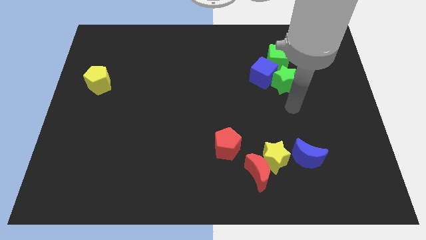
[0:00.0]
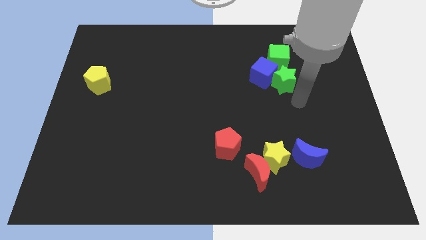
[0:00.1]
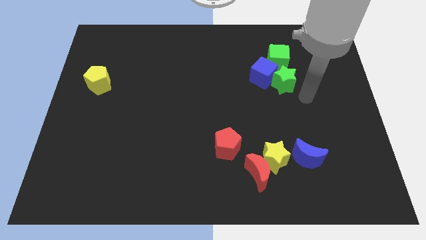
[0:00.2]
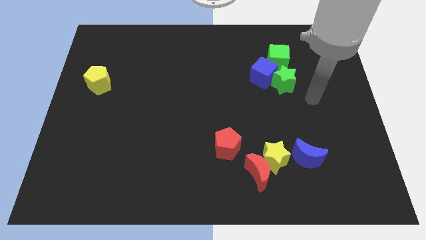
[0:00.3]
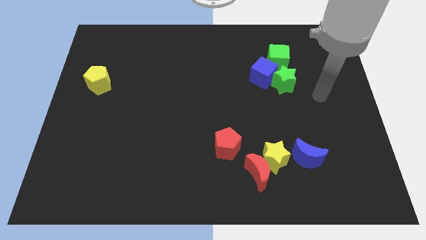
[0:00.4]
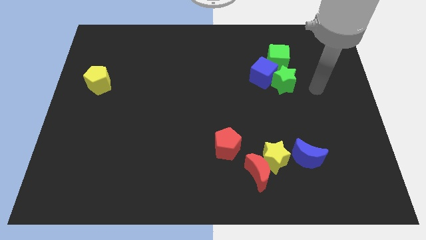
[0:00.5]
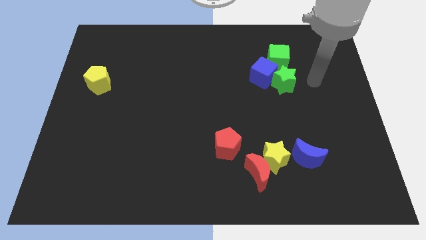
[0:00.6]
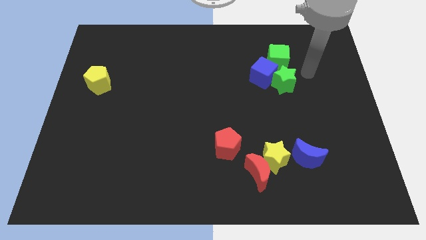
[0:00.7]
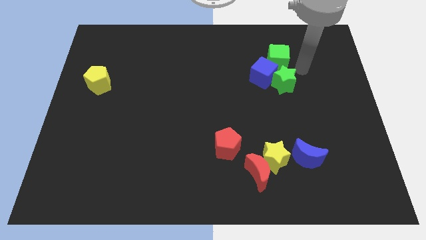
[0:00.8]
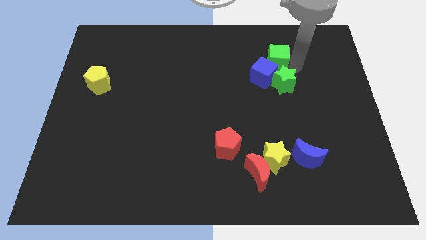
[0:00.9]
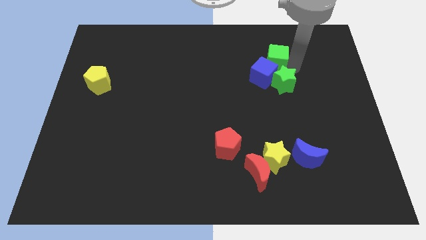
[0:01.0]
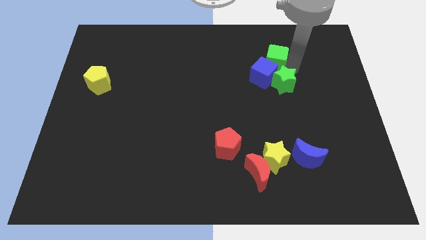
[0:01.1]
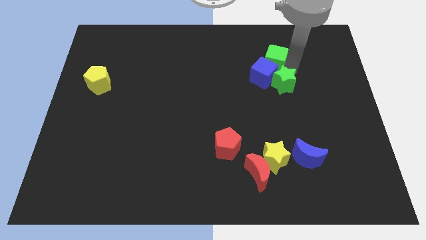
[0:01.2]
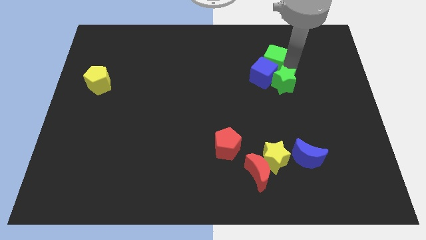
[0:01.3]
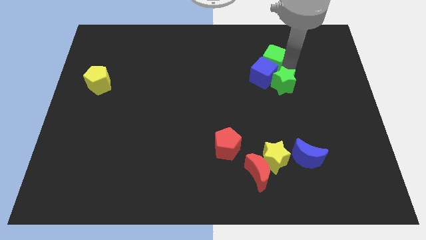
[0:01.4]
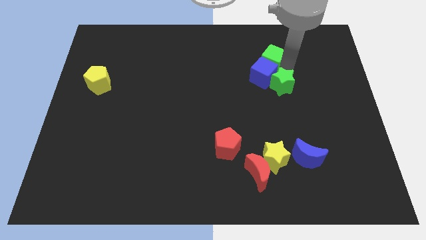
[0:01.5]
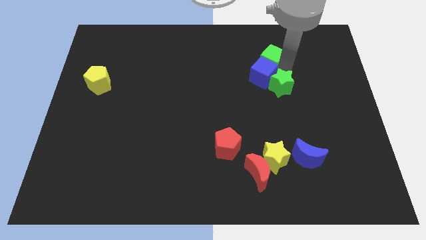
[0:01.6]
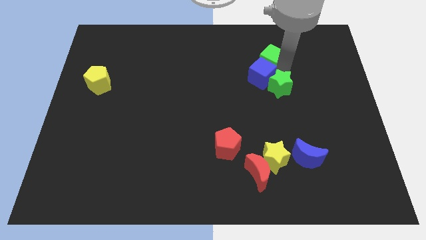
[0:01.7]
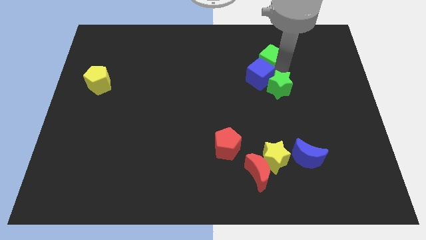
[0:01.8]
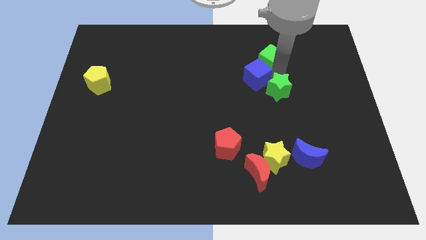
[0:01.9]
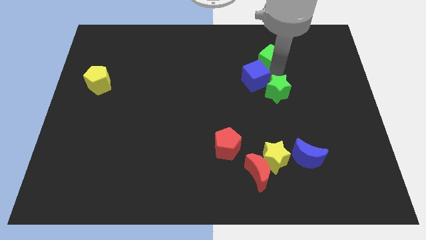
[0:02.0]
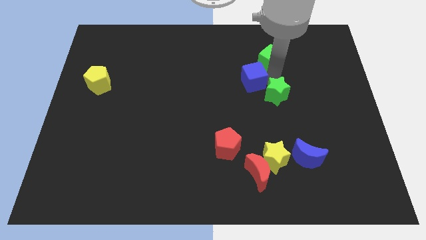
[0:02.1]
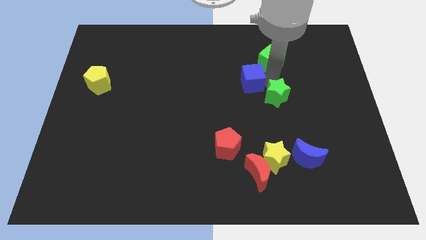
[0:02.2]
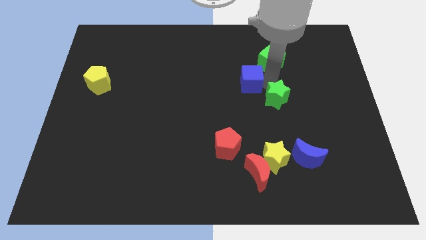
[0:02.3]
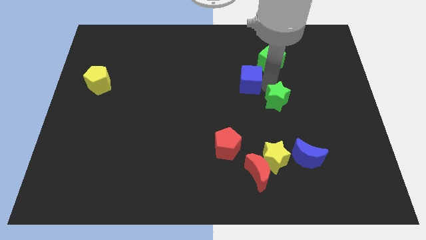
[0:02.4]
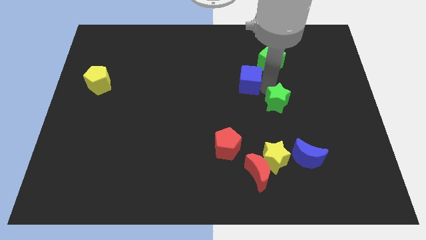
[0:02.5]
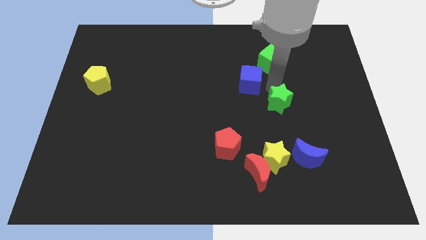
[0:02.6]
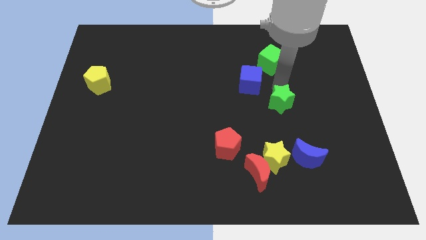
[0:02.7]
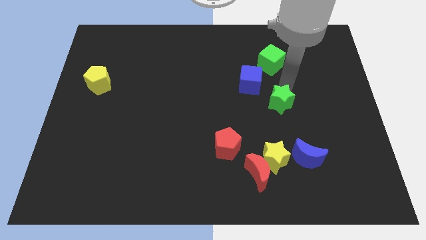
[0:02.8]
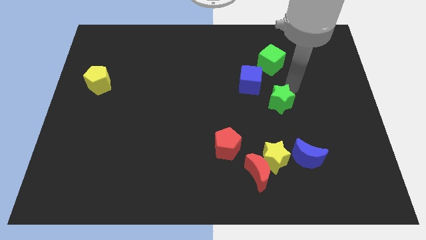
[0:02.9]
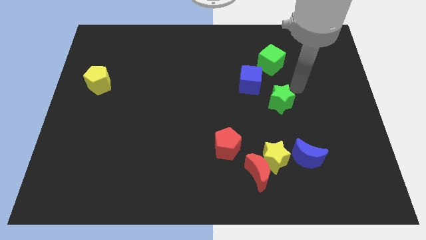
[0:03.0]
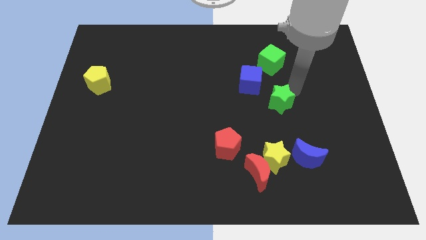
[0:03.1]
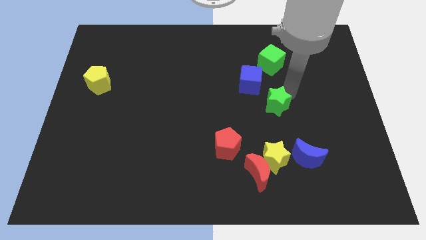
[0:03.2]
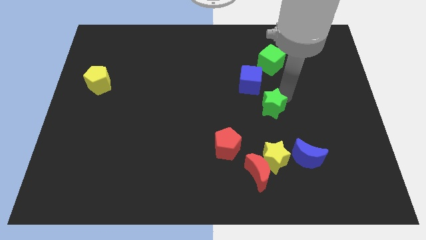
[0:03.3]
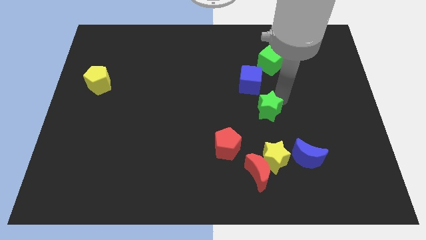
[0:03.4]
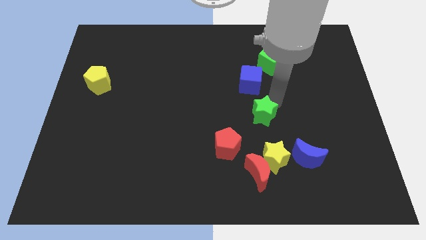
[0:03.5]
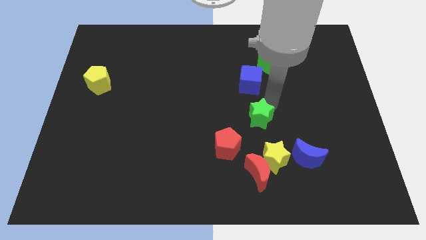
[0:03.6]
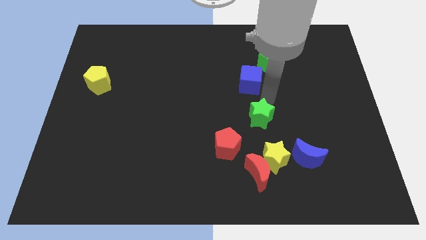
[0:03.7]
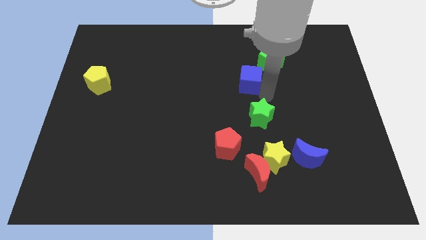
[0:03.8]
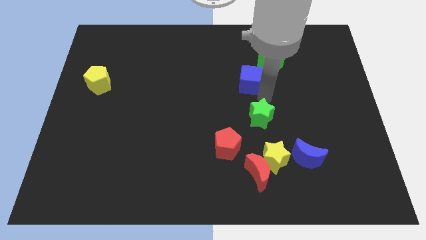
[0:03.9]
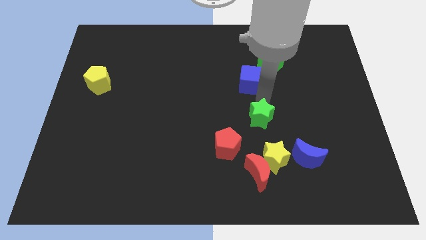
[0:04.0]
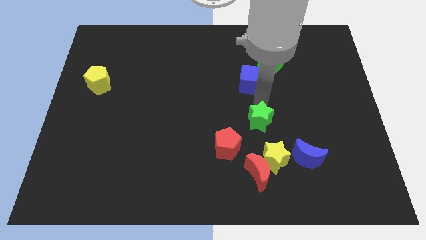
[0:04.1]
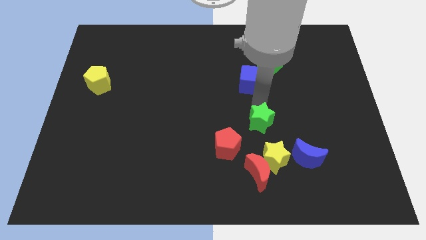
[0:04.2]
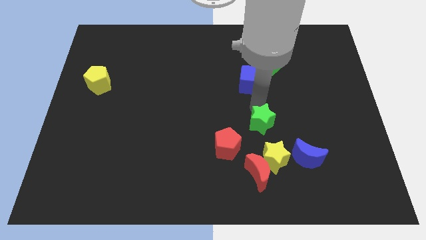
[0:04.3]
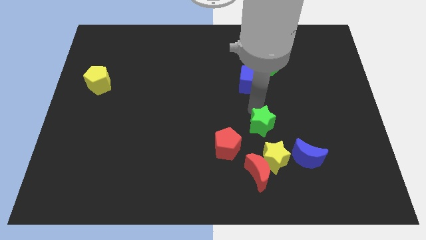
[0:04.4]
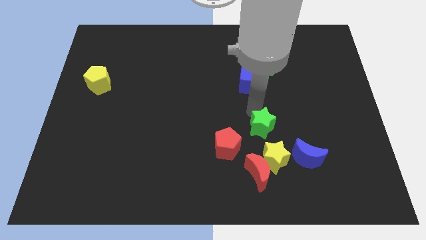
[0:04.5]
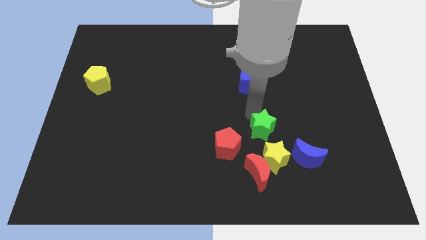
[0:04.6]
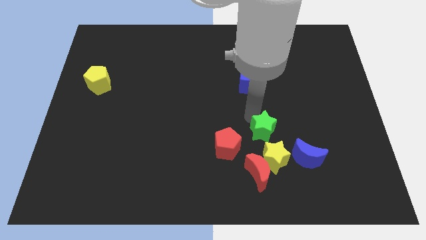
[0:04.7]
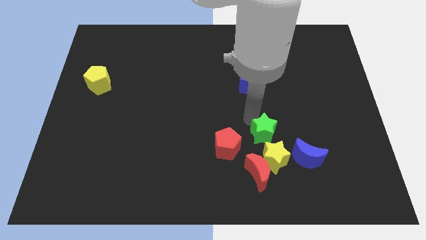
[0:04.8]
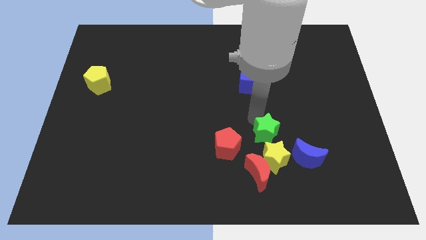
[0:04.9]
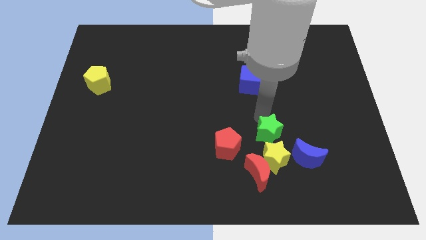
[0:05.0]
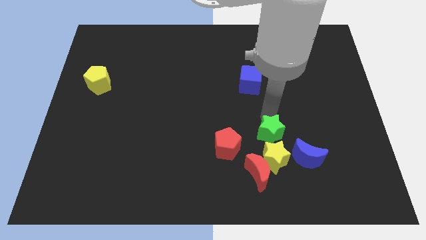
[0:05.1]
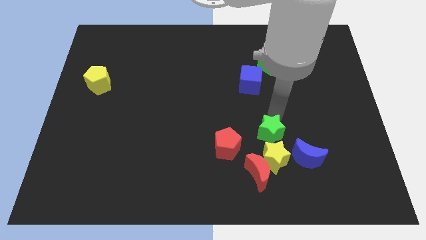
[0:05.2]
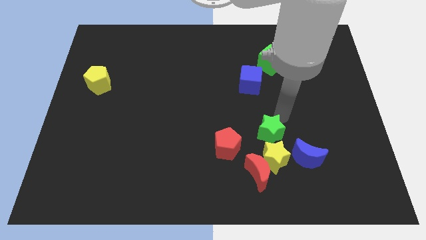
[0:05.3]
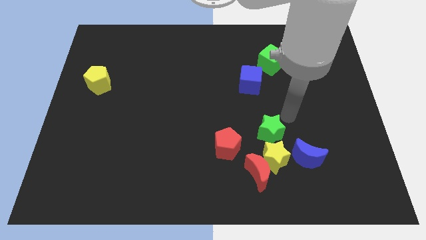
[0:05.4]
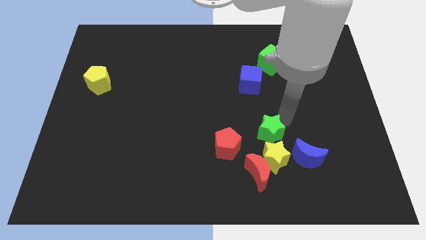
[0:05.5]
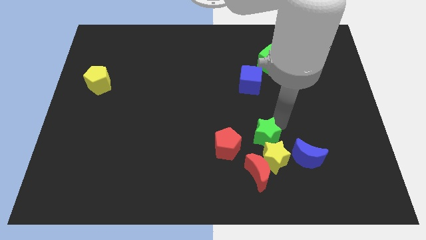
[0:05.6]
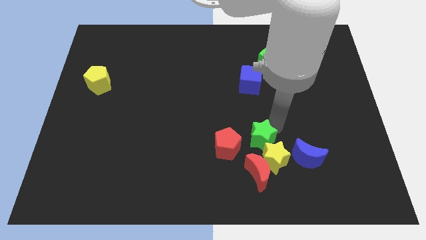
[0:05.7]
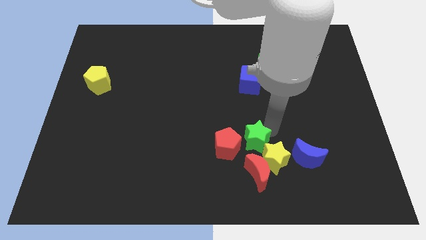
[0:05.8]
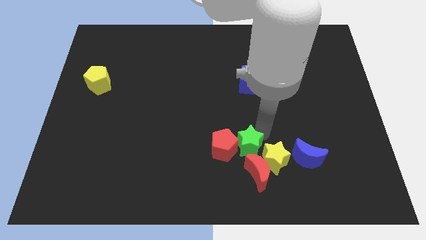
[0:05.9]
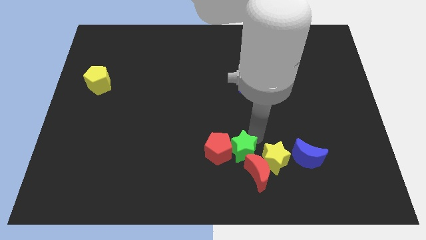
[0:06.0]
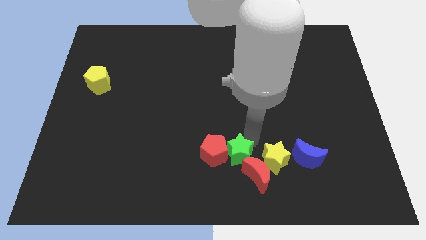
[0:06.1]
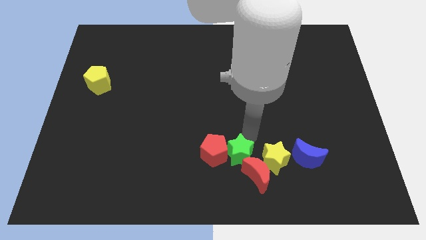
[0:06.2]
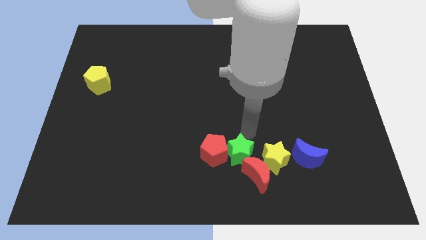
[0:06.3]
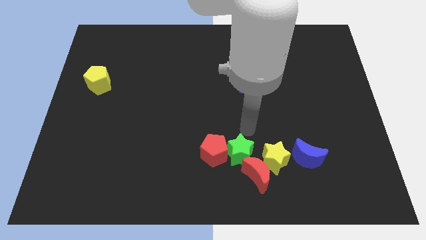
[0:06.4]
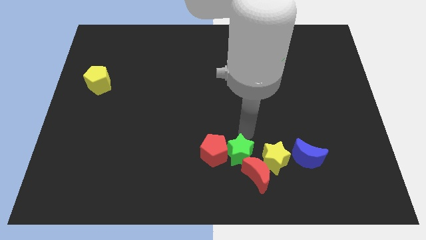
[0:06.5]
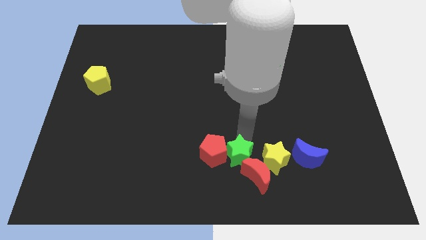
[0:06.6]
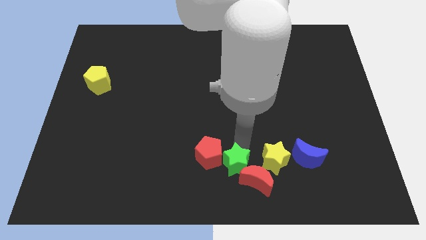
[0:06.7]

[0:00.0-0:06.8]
move the green star to the bottom side
